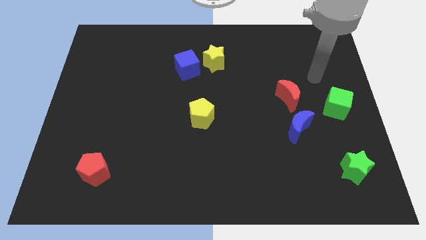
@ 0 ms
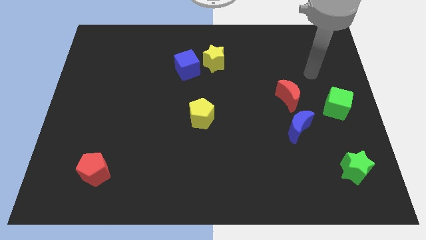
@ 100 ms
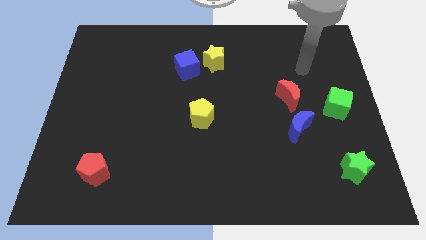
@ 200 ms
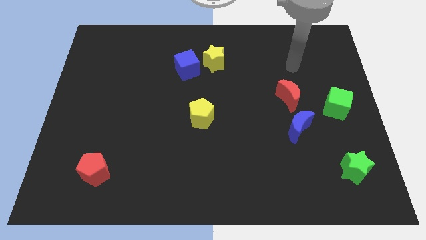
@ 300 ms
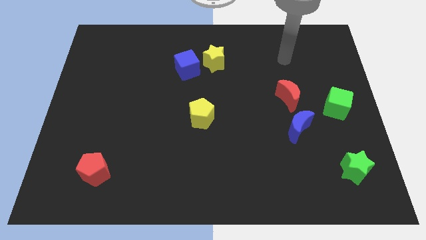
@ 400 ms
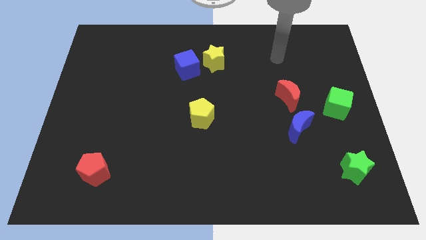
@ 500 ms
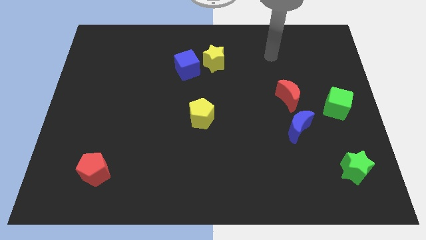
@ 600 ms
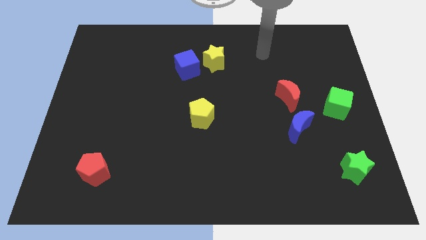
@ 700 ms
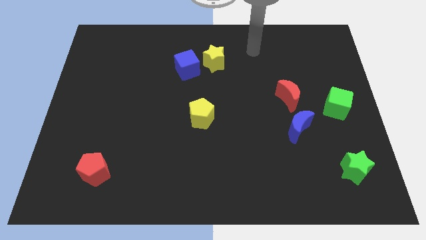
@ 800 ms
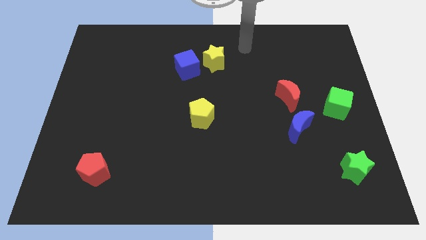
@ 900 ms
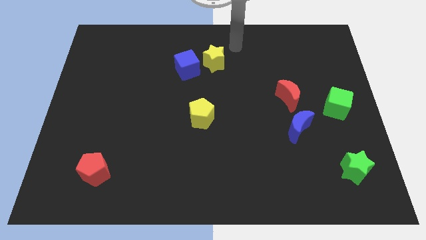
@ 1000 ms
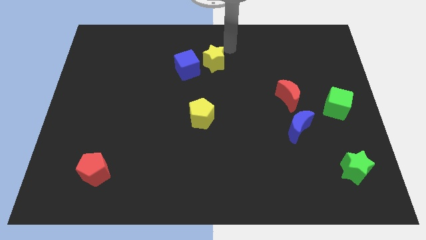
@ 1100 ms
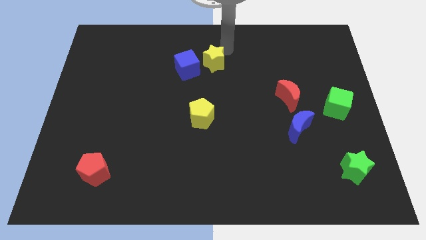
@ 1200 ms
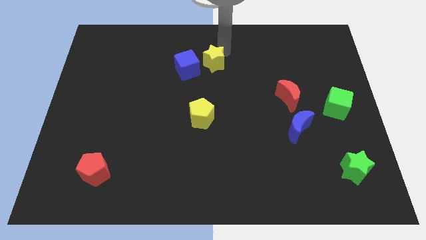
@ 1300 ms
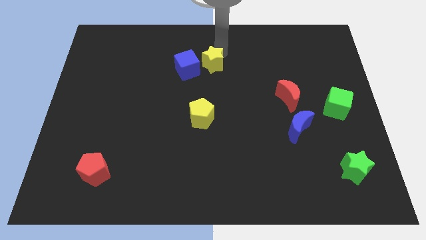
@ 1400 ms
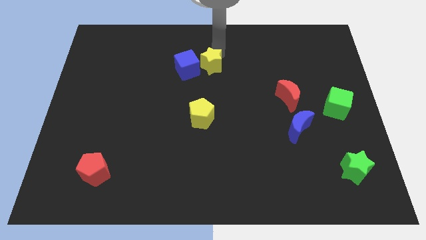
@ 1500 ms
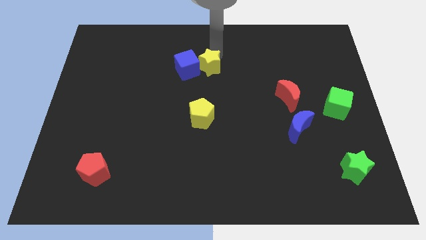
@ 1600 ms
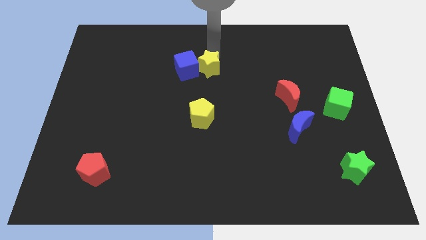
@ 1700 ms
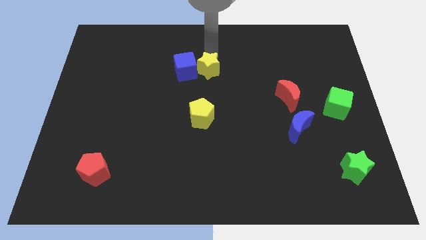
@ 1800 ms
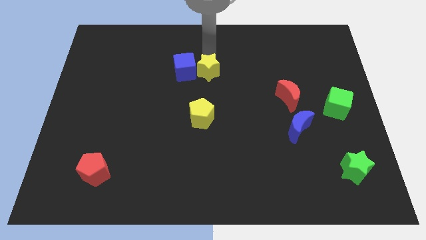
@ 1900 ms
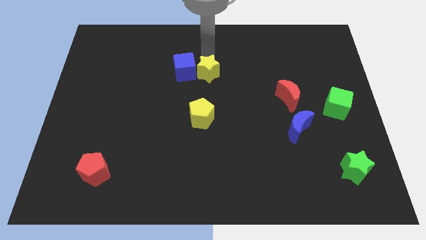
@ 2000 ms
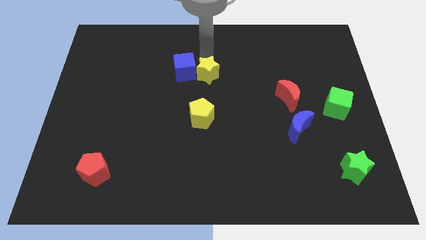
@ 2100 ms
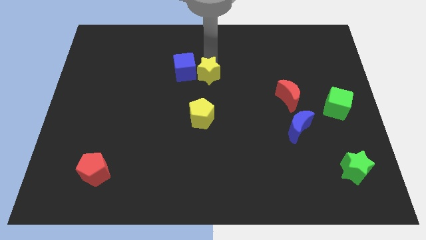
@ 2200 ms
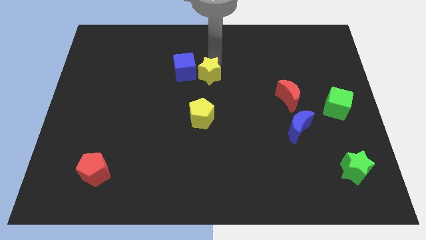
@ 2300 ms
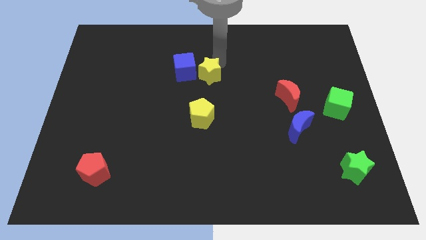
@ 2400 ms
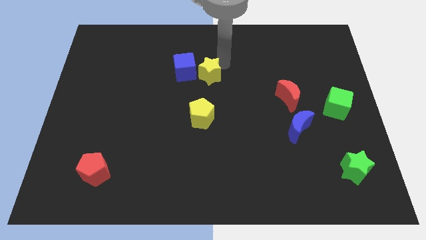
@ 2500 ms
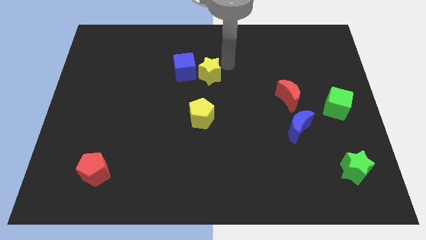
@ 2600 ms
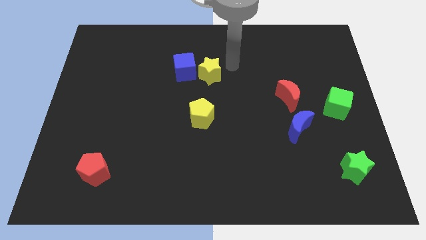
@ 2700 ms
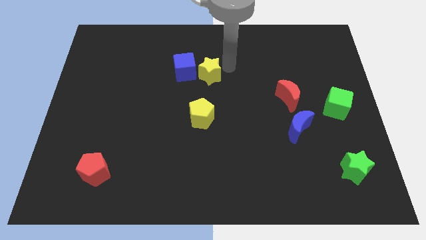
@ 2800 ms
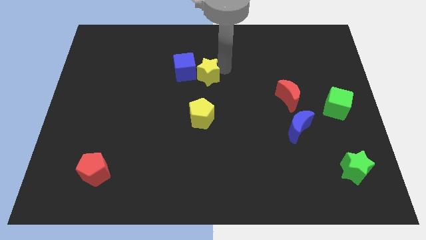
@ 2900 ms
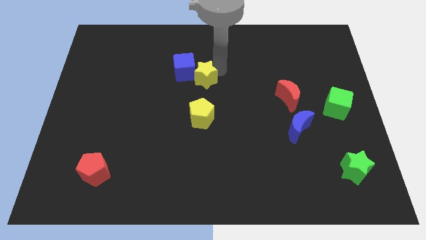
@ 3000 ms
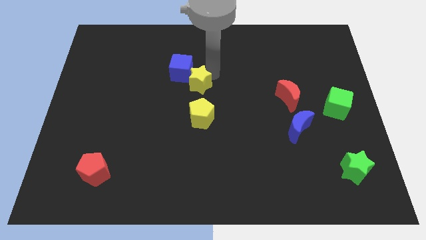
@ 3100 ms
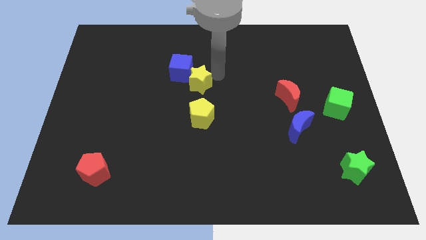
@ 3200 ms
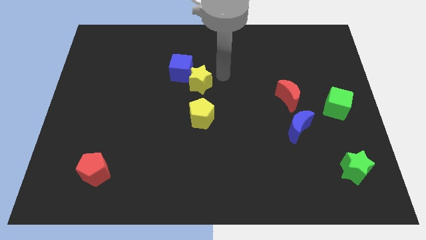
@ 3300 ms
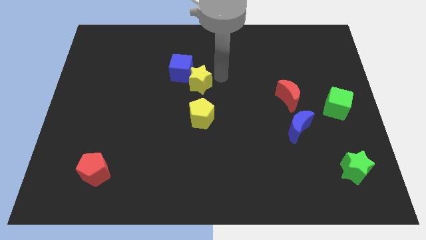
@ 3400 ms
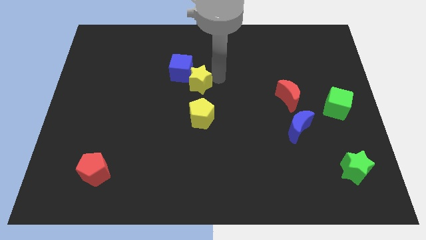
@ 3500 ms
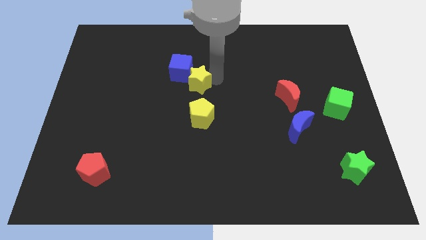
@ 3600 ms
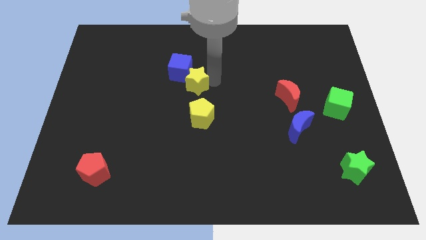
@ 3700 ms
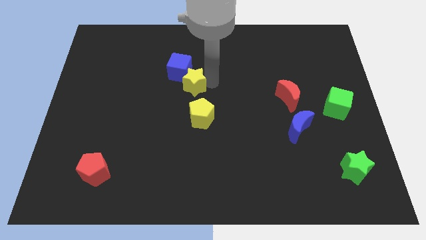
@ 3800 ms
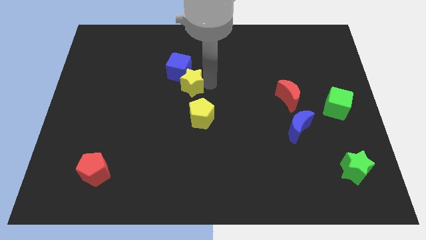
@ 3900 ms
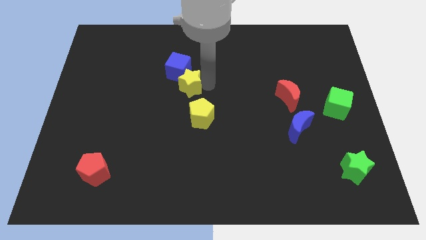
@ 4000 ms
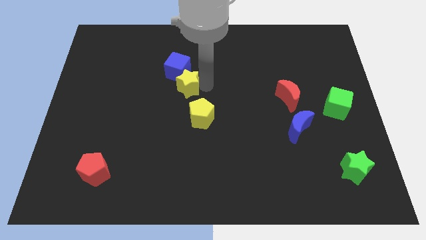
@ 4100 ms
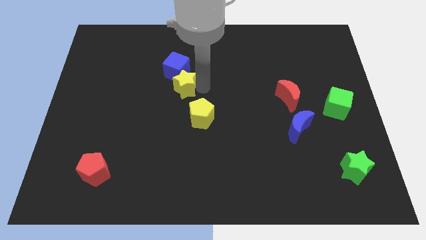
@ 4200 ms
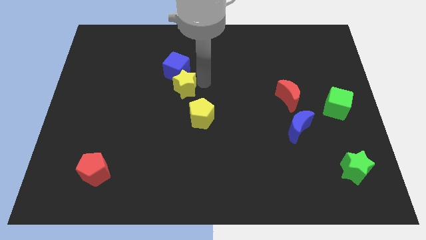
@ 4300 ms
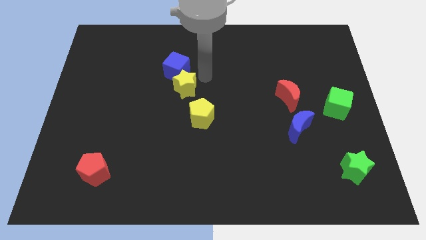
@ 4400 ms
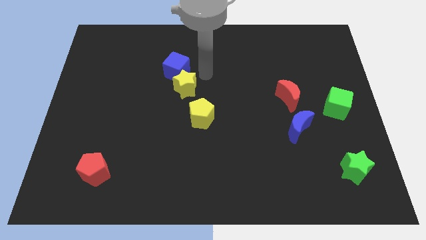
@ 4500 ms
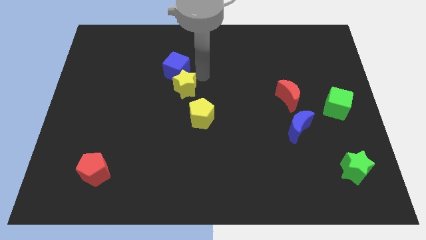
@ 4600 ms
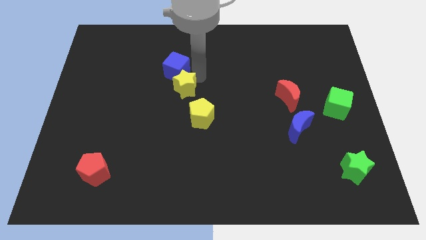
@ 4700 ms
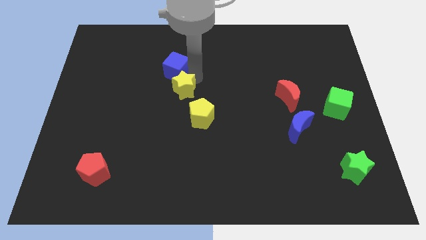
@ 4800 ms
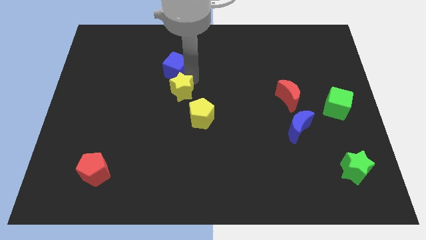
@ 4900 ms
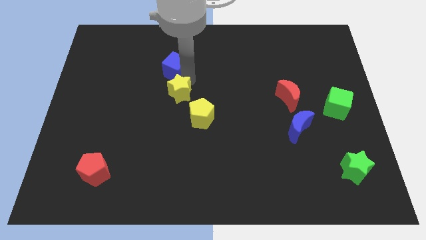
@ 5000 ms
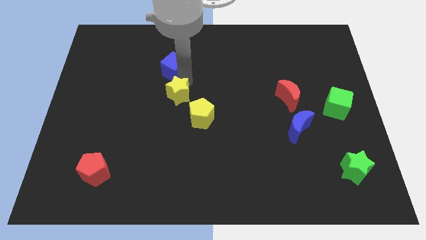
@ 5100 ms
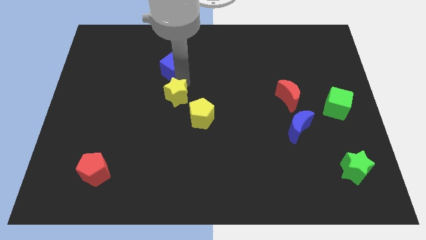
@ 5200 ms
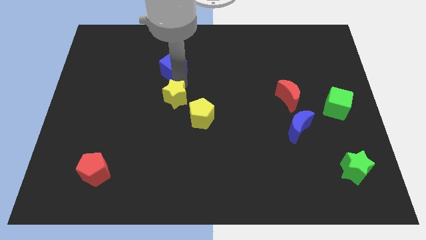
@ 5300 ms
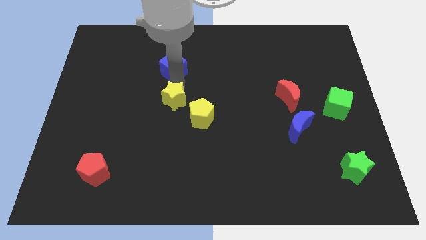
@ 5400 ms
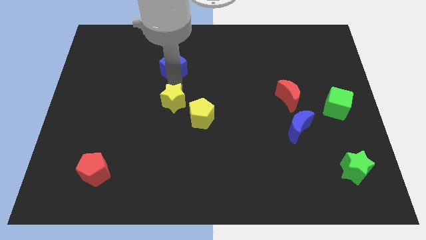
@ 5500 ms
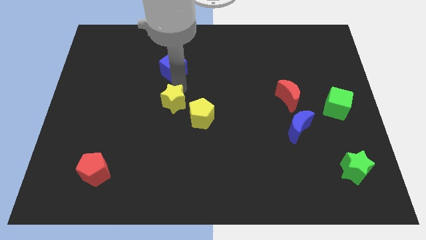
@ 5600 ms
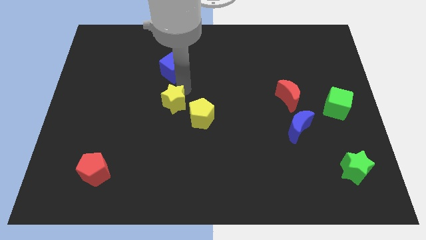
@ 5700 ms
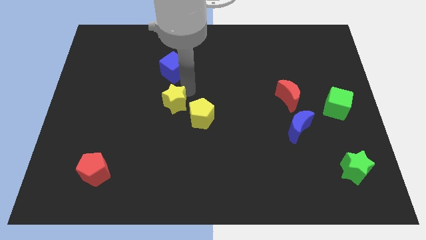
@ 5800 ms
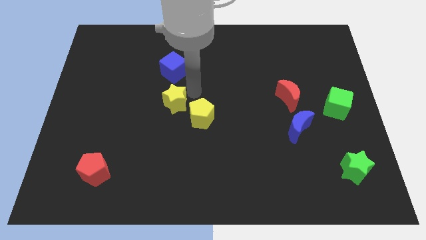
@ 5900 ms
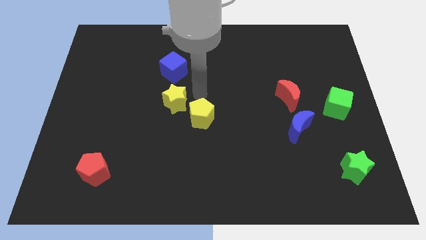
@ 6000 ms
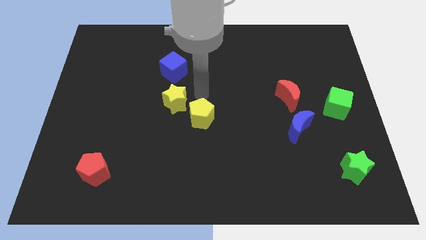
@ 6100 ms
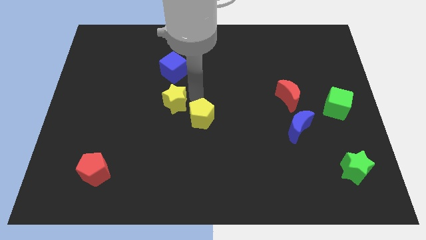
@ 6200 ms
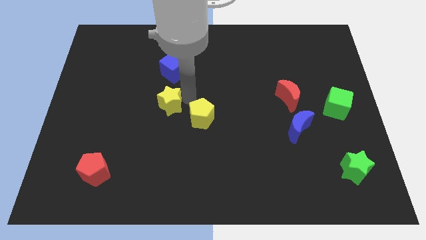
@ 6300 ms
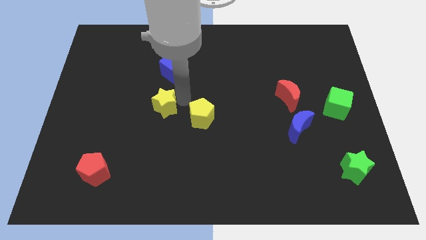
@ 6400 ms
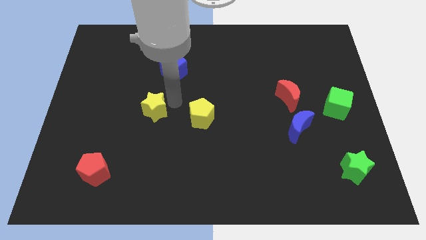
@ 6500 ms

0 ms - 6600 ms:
move the yellow star diagonally downwards and to the left

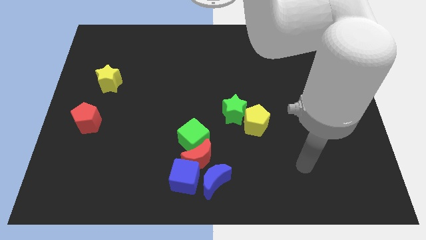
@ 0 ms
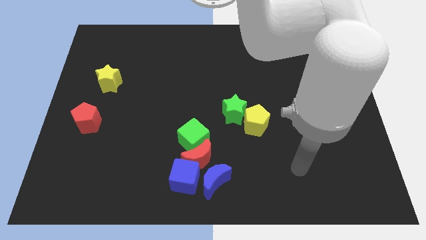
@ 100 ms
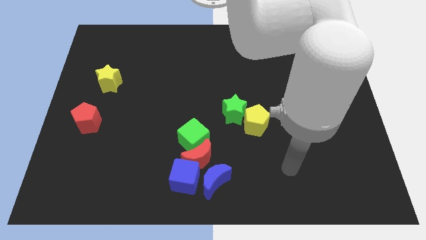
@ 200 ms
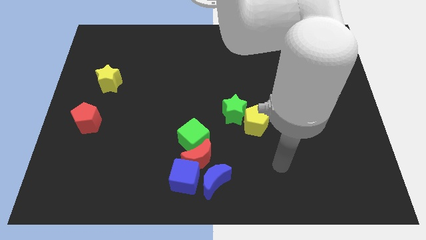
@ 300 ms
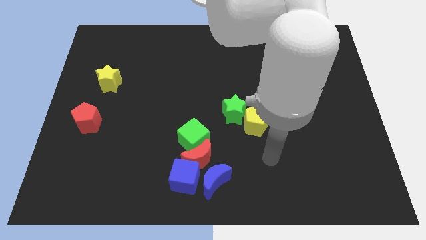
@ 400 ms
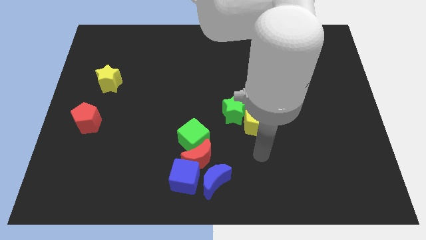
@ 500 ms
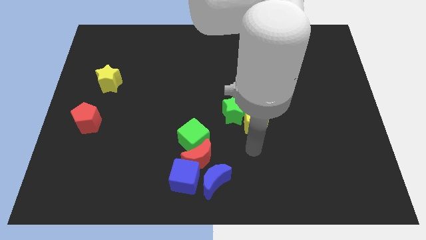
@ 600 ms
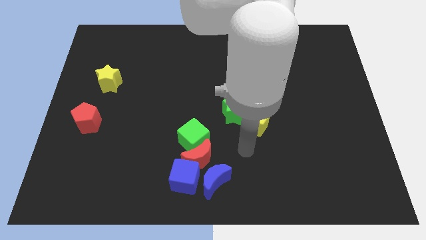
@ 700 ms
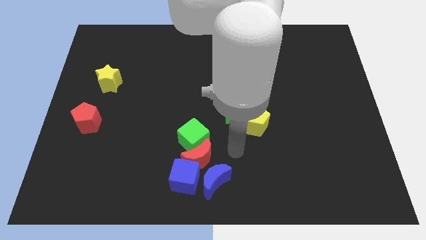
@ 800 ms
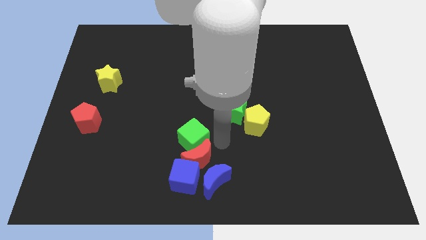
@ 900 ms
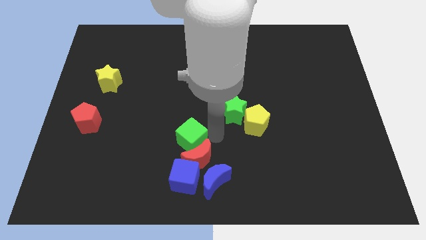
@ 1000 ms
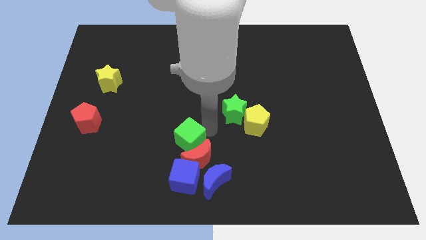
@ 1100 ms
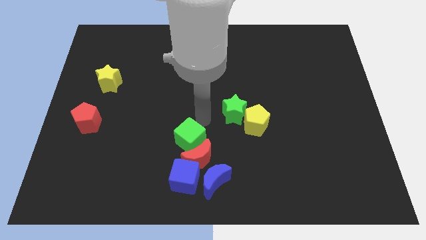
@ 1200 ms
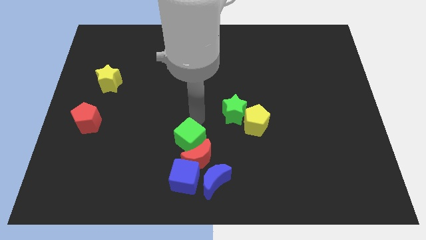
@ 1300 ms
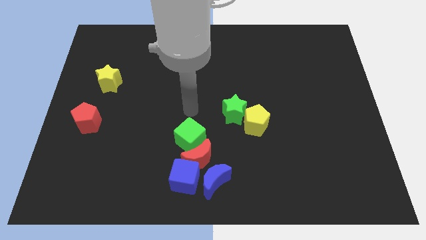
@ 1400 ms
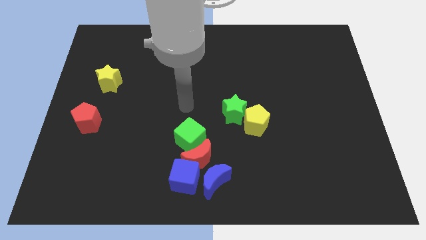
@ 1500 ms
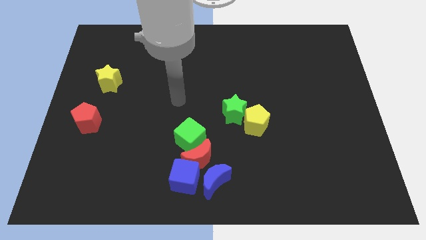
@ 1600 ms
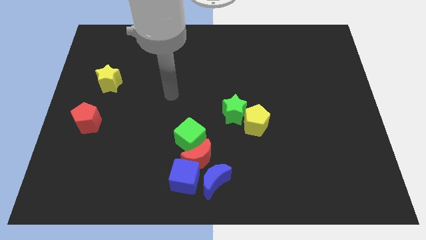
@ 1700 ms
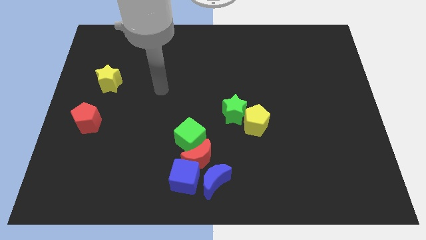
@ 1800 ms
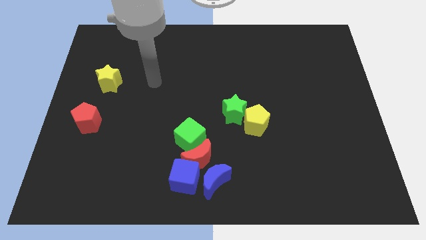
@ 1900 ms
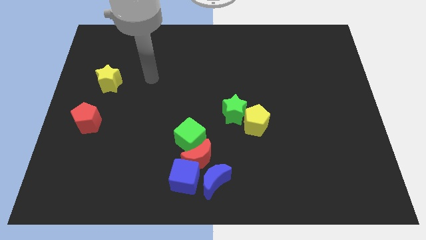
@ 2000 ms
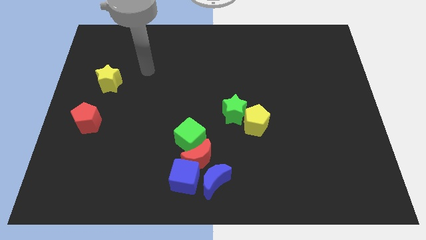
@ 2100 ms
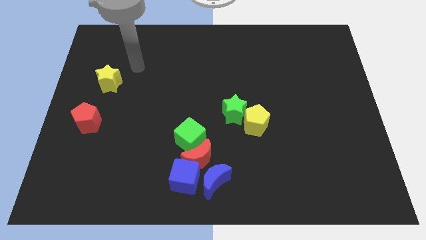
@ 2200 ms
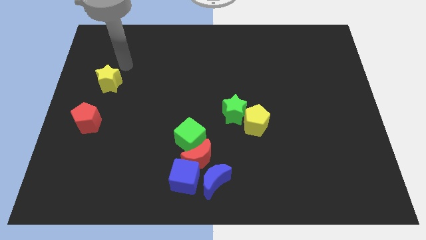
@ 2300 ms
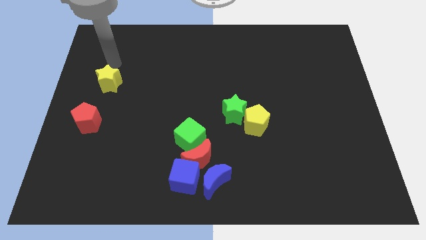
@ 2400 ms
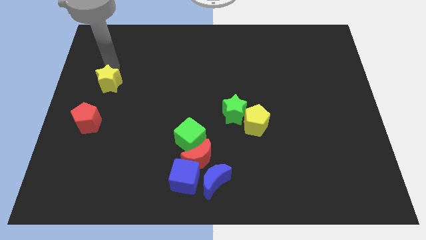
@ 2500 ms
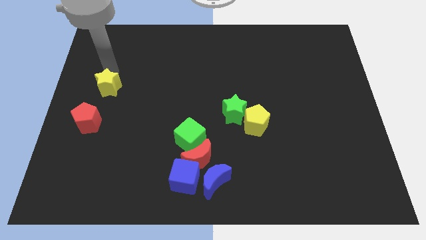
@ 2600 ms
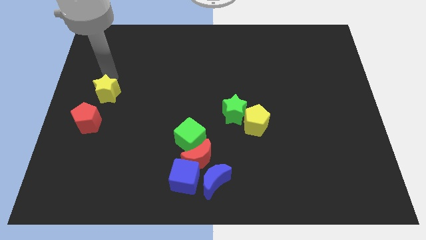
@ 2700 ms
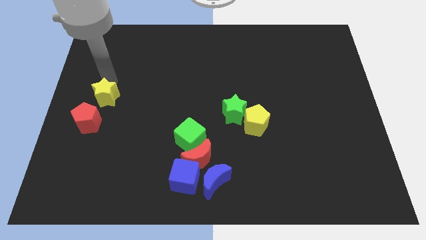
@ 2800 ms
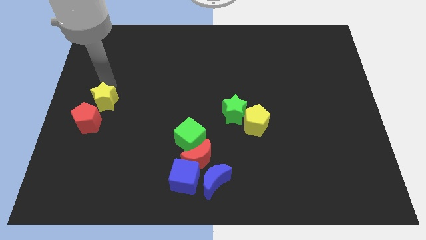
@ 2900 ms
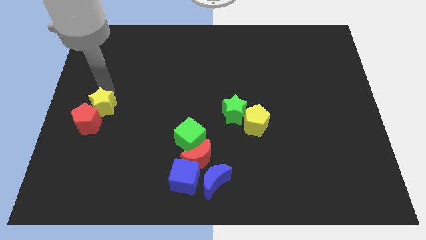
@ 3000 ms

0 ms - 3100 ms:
move the yellow star a little bit downwards
